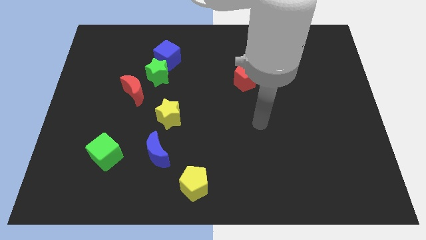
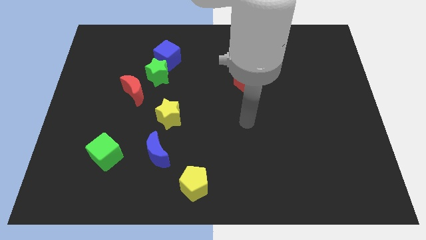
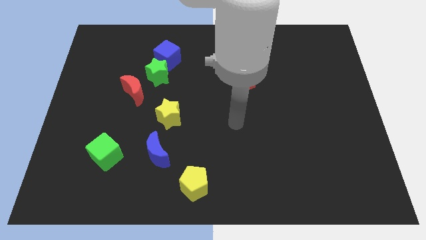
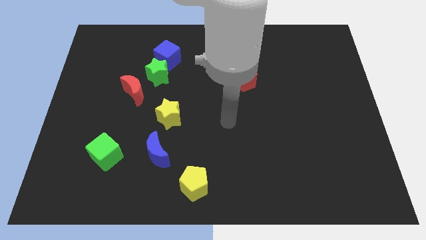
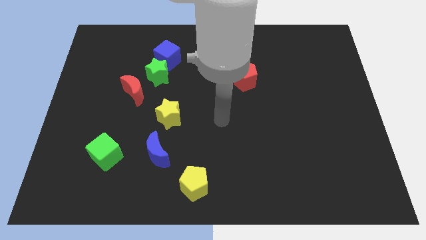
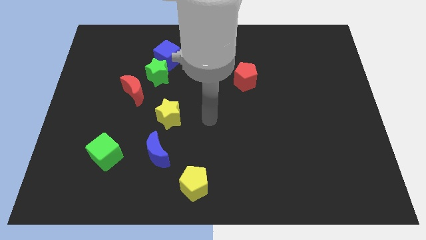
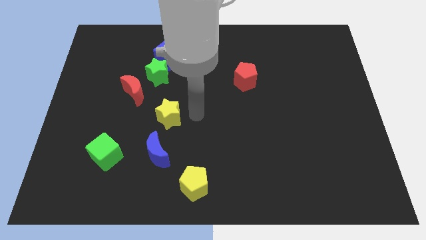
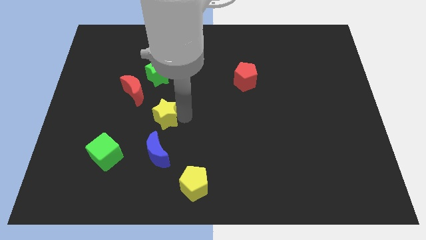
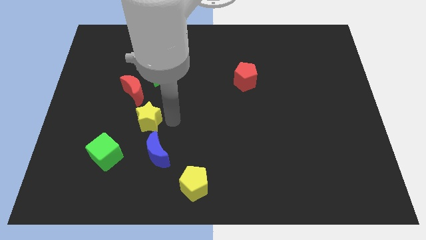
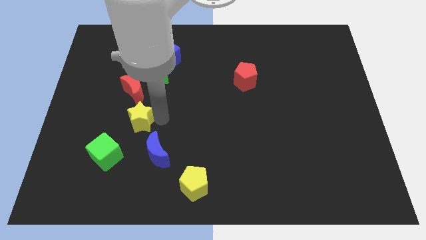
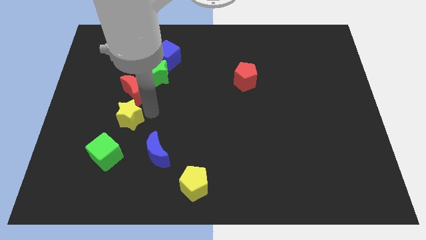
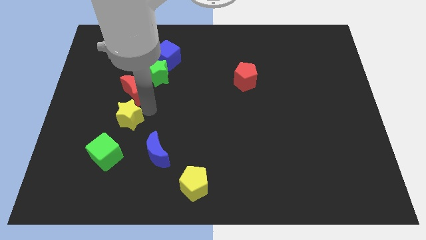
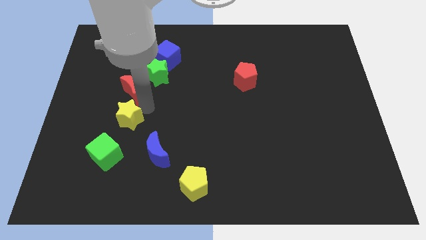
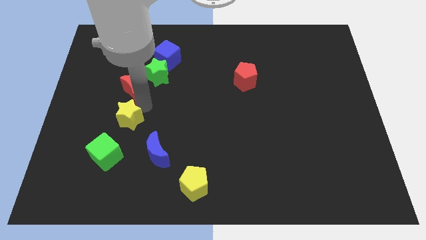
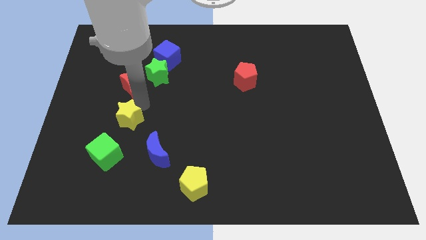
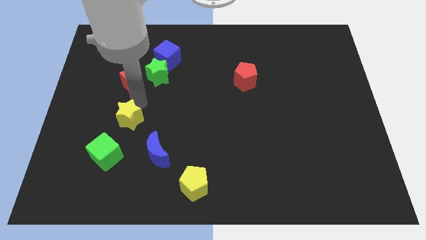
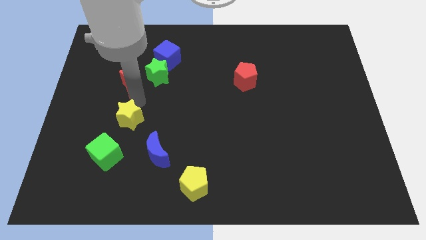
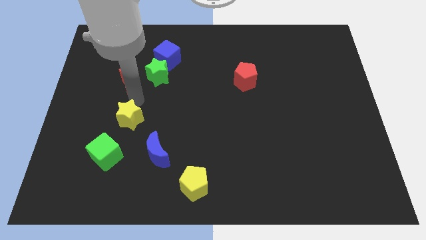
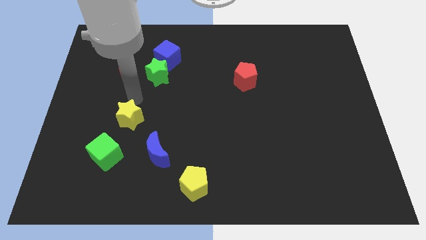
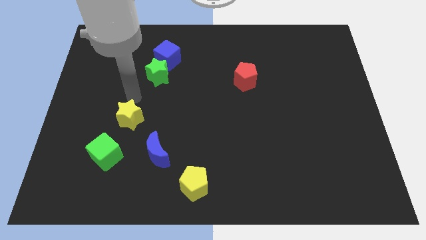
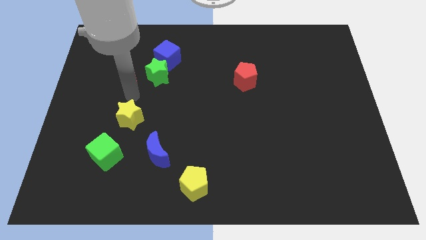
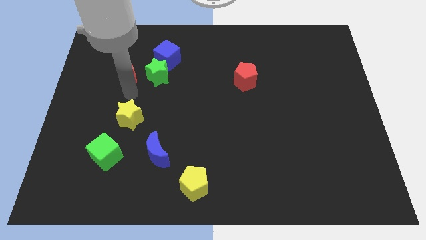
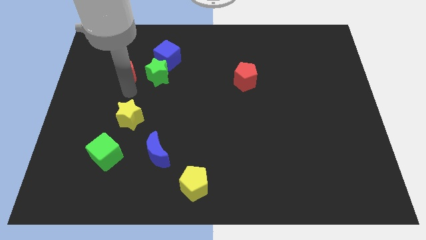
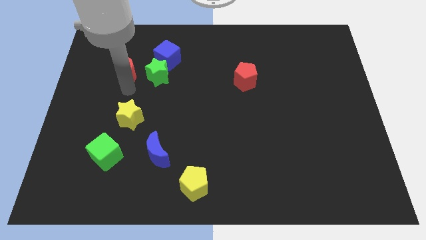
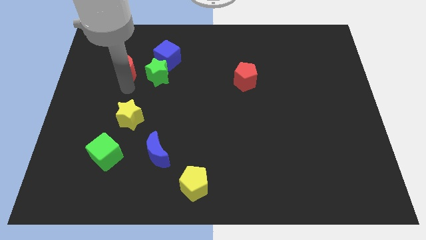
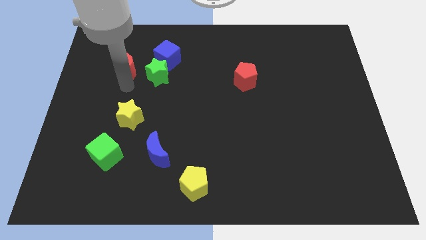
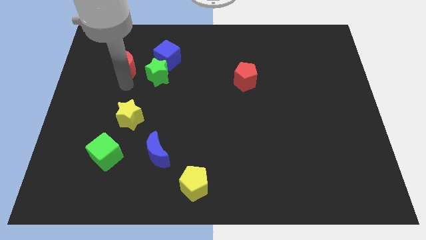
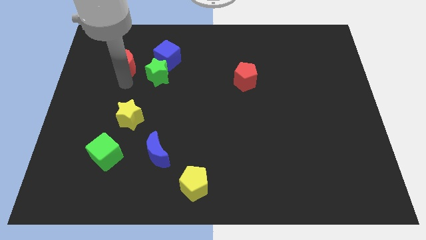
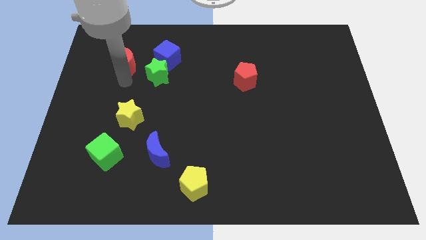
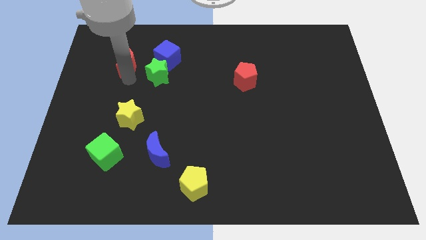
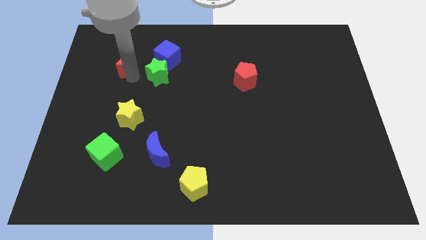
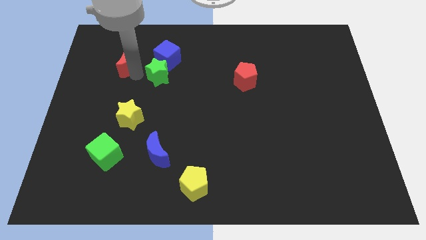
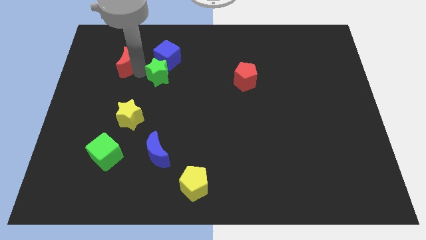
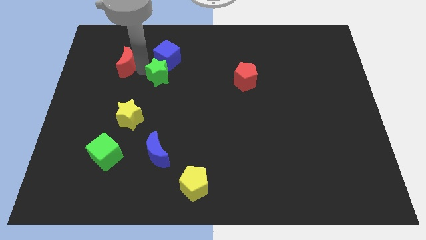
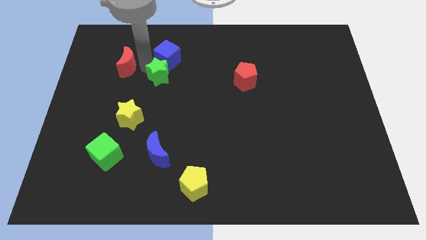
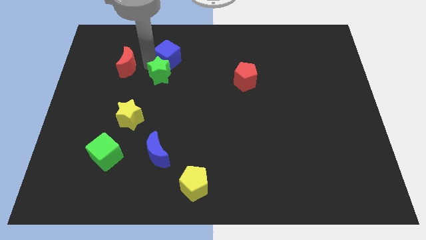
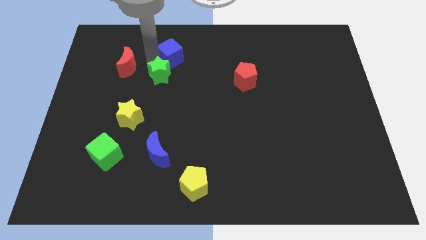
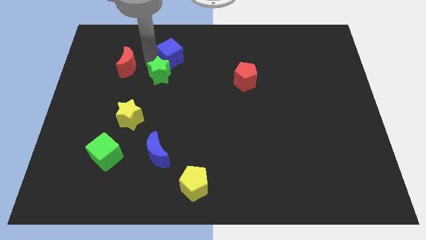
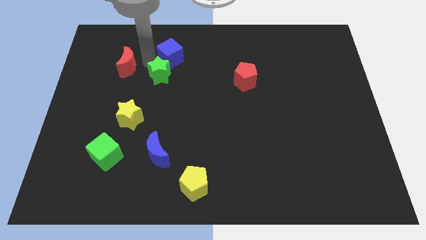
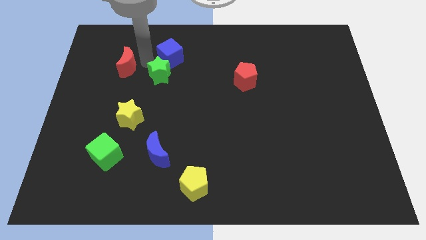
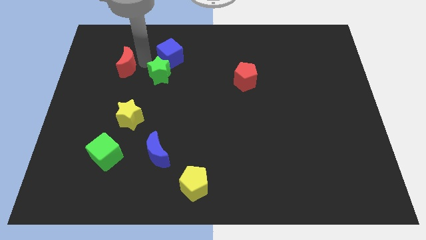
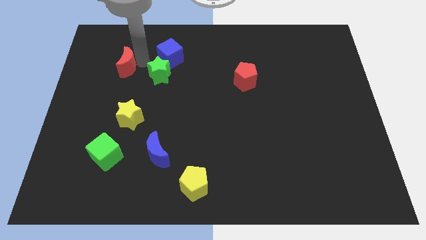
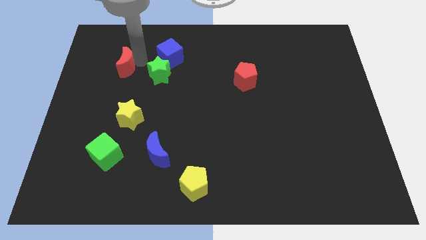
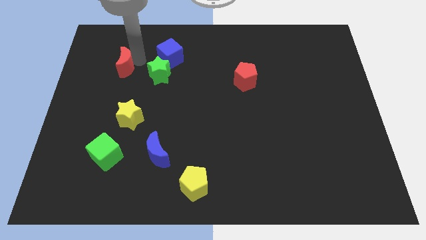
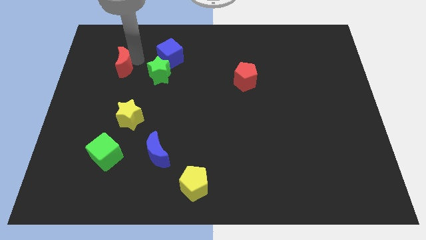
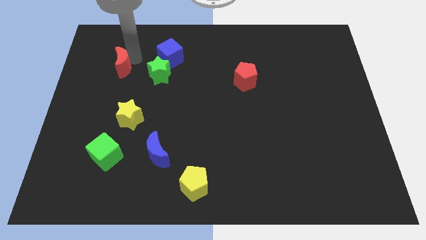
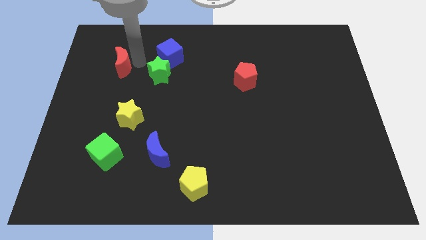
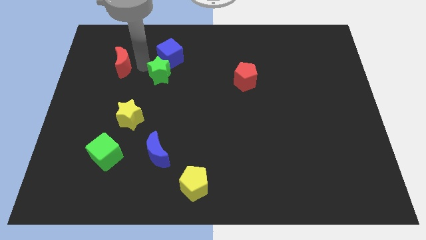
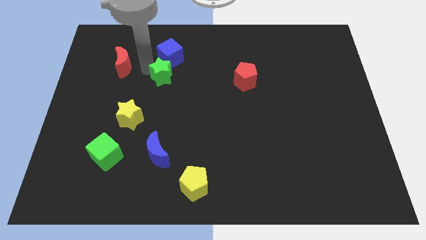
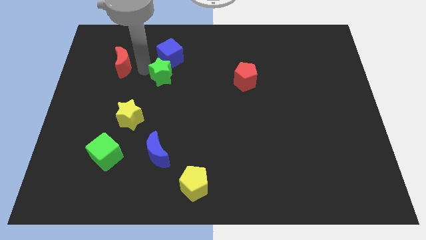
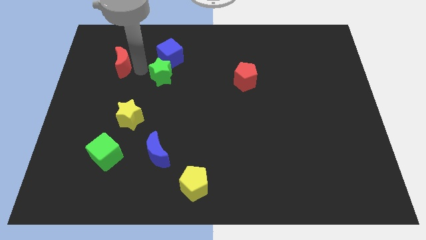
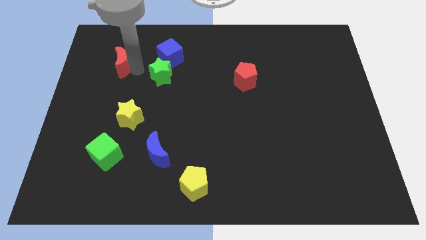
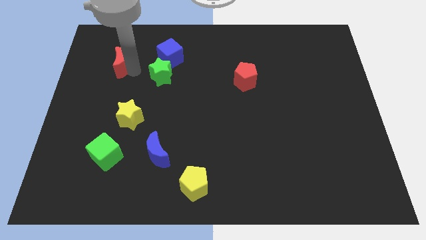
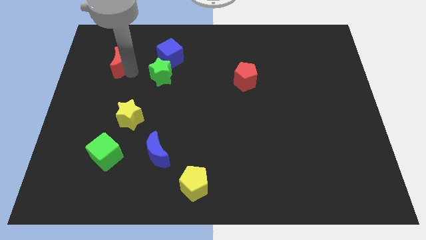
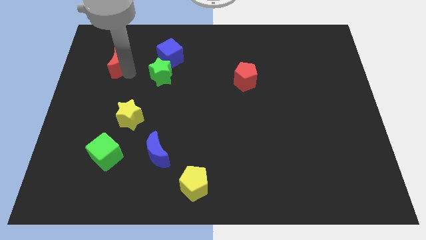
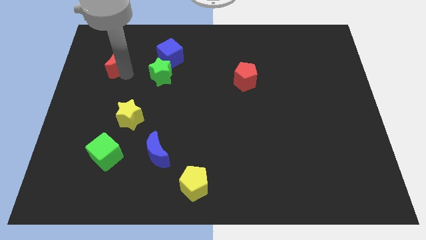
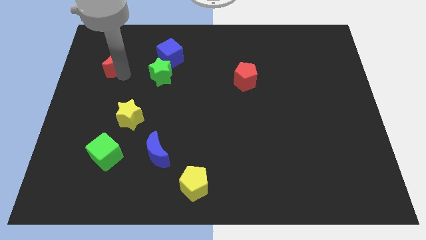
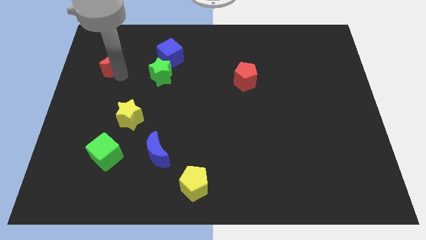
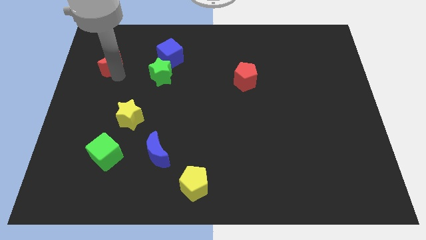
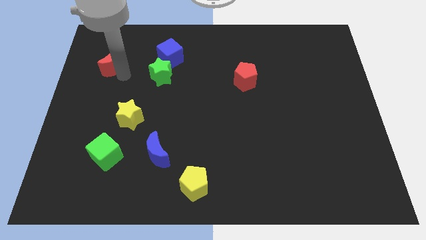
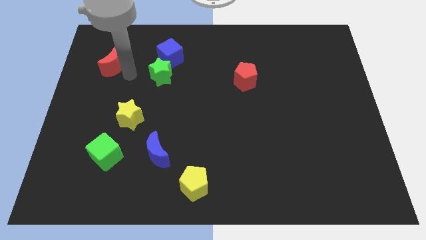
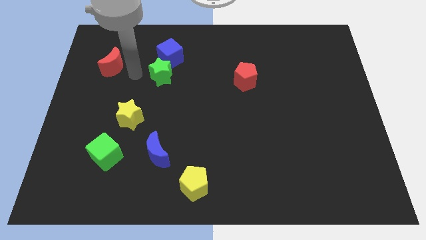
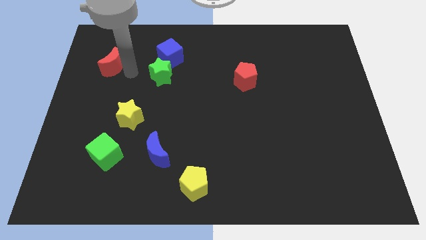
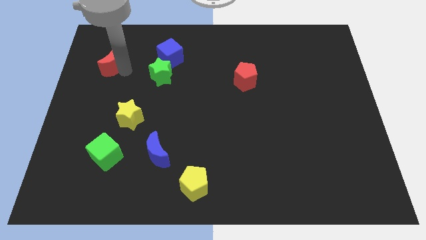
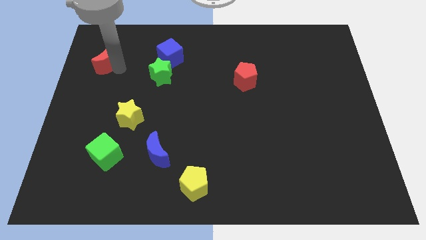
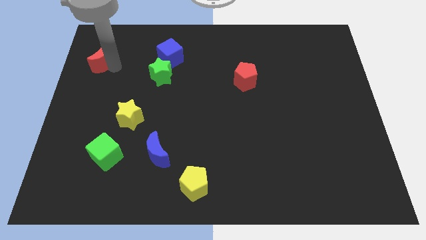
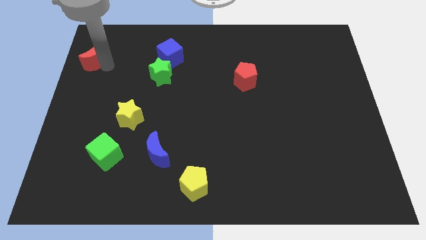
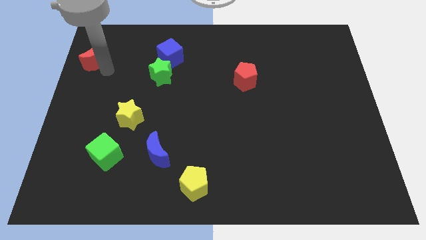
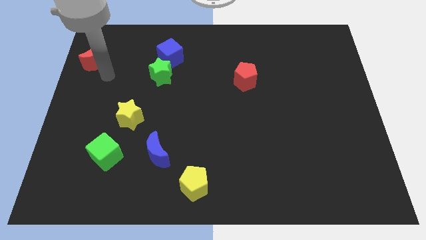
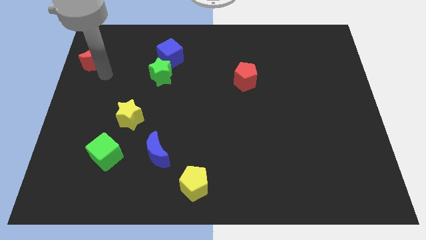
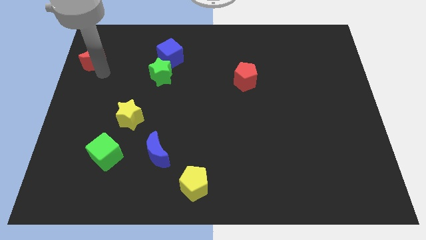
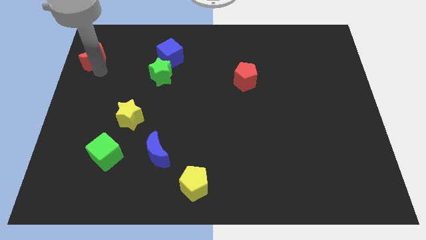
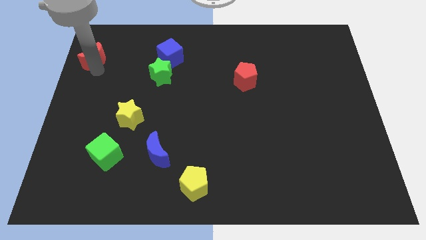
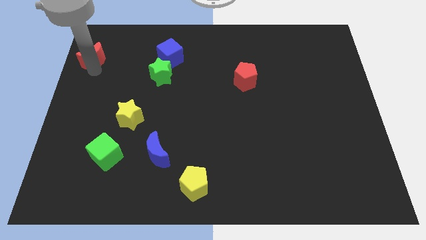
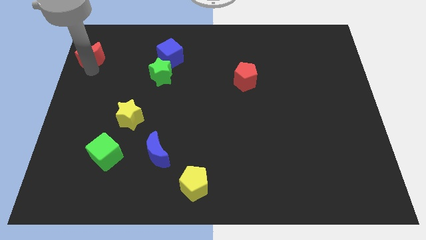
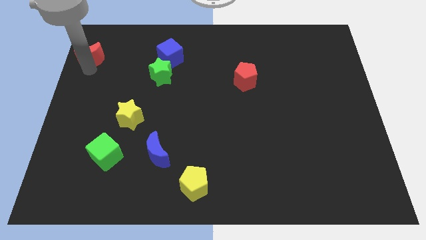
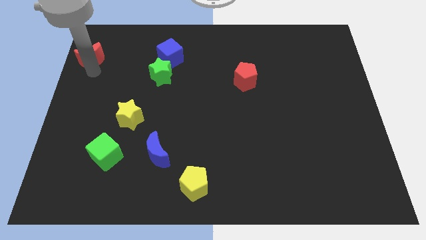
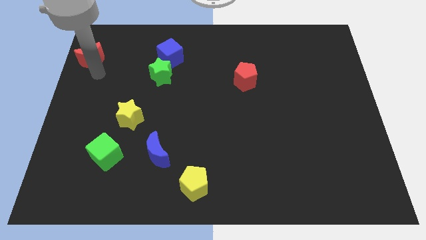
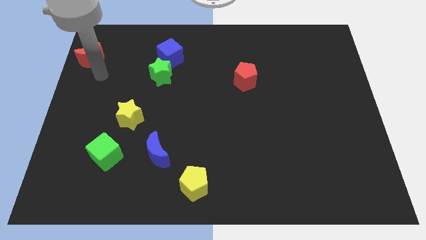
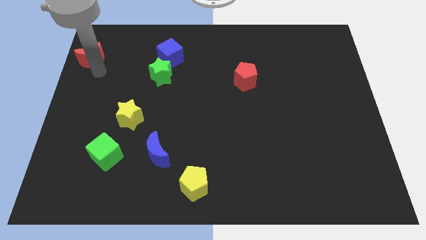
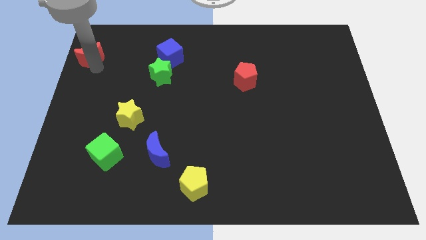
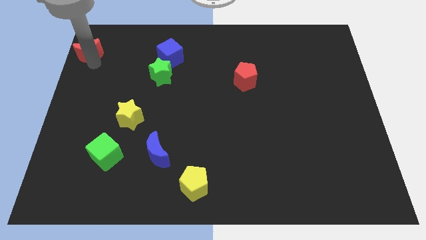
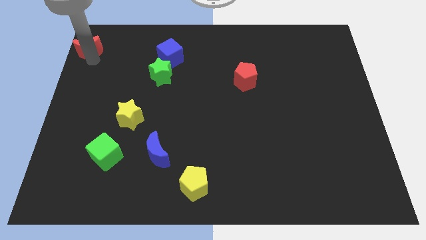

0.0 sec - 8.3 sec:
move the red moon to the top left
